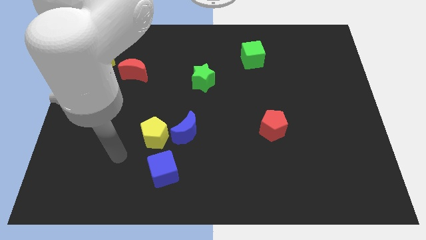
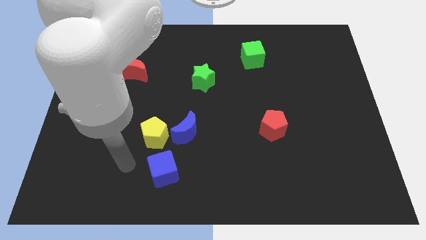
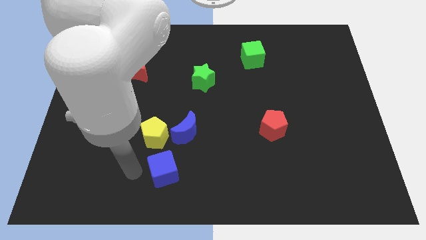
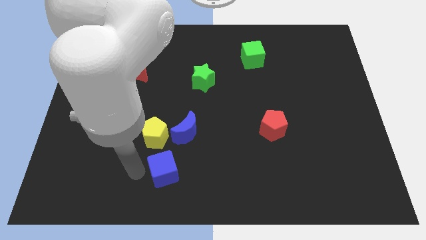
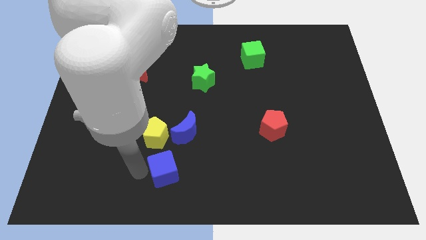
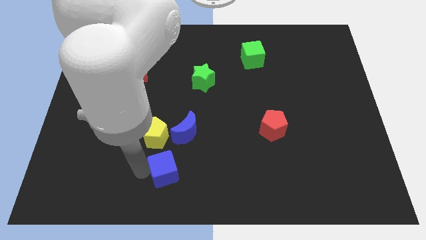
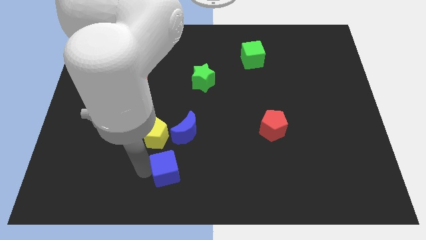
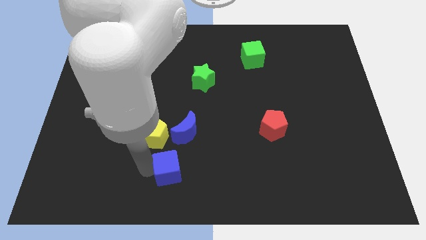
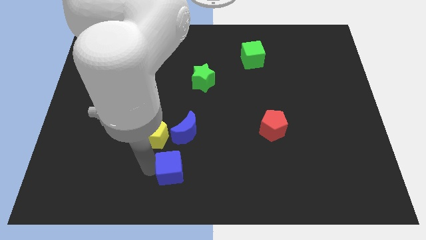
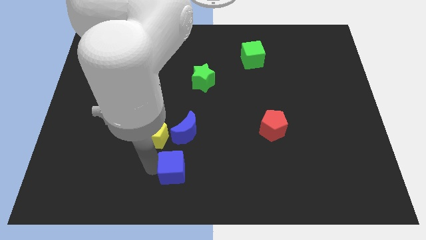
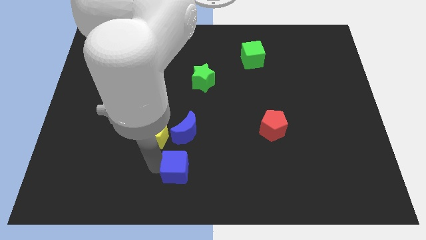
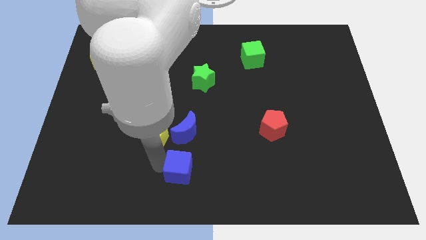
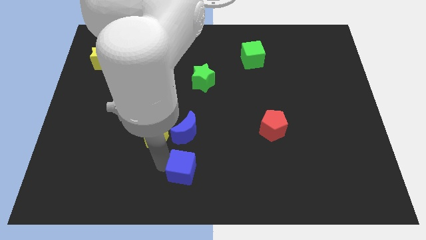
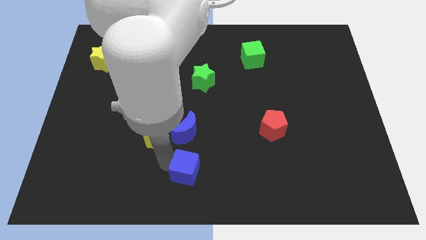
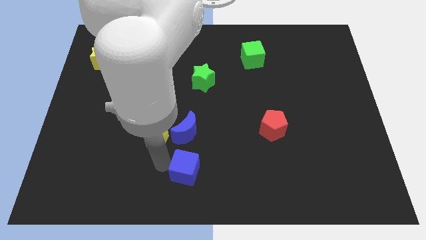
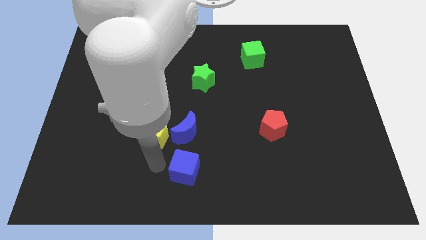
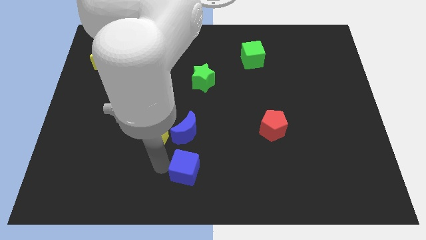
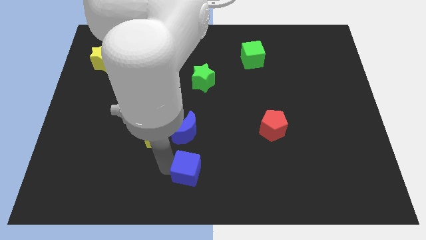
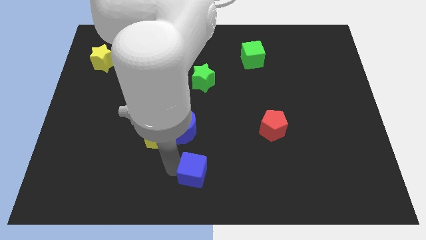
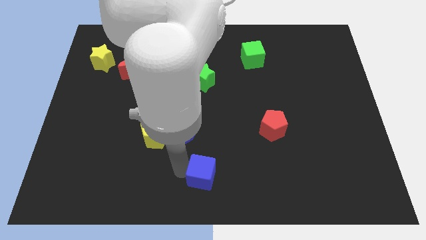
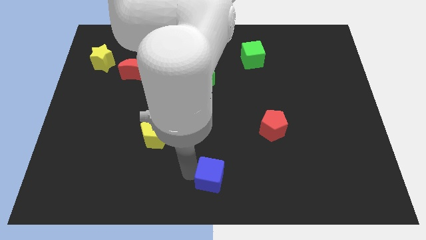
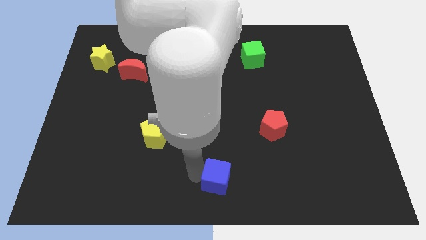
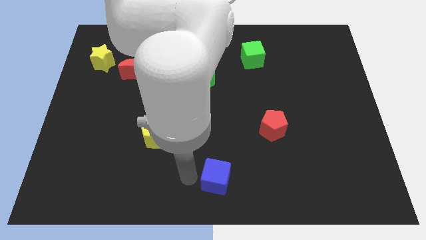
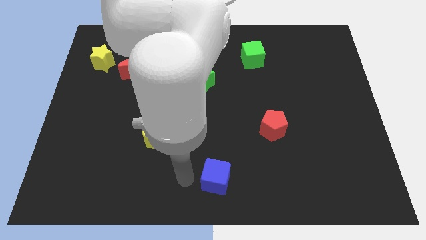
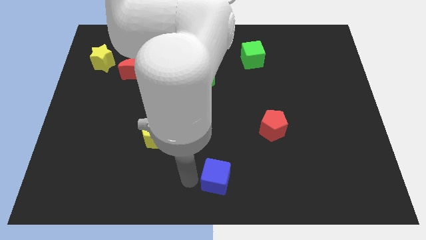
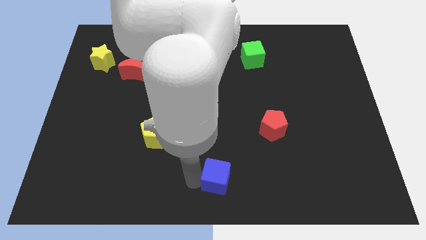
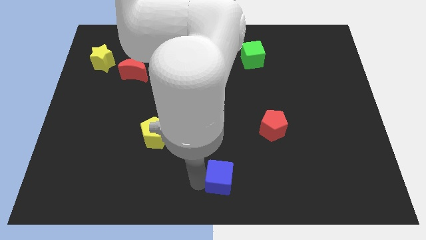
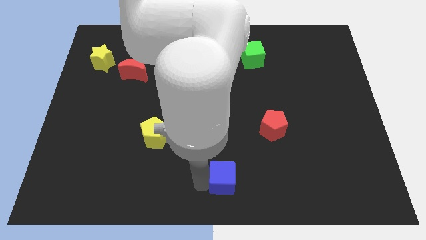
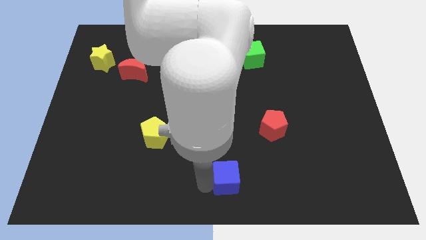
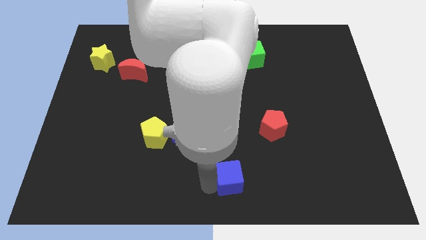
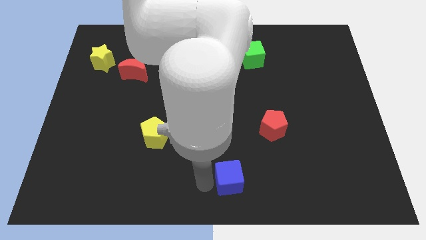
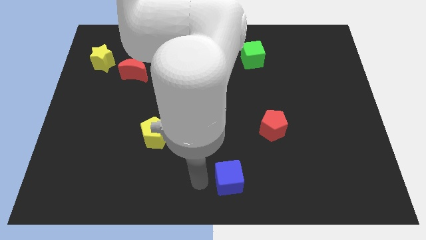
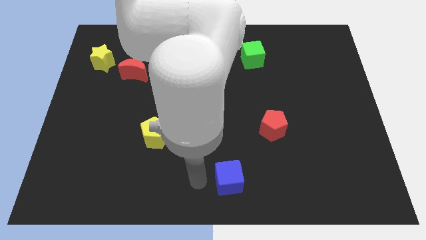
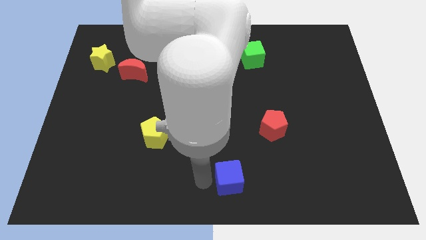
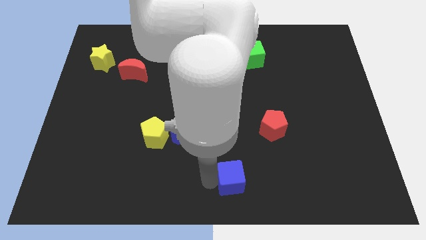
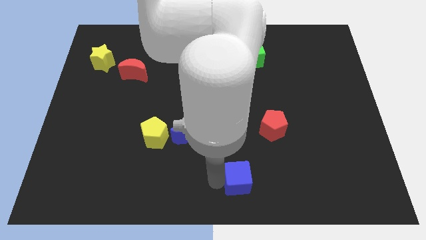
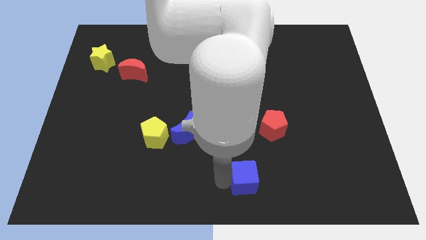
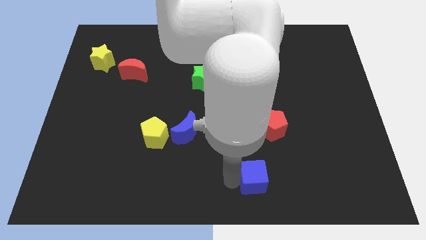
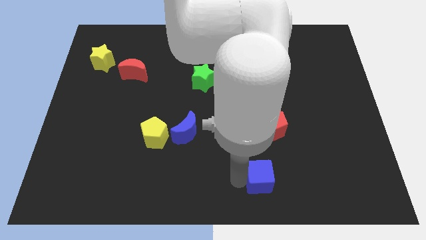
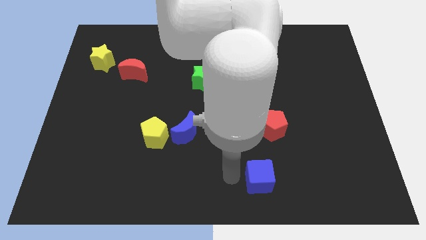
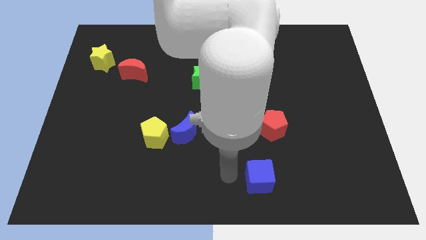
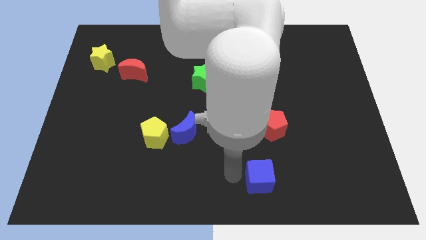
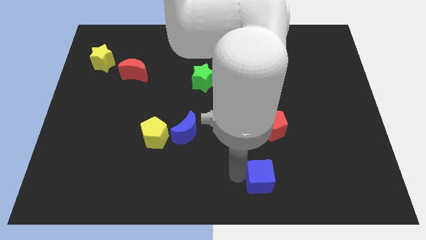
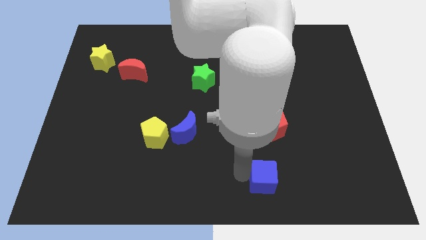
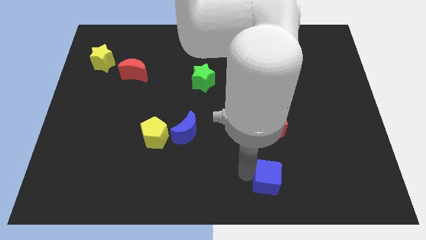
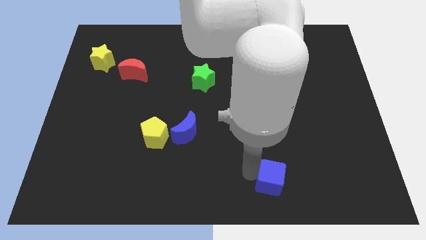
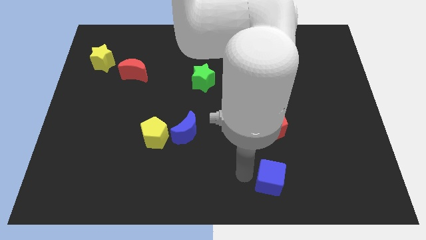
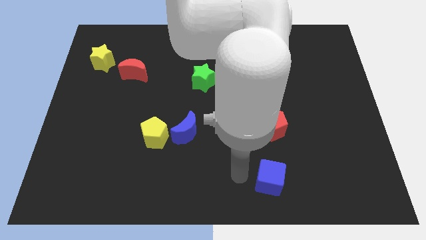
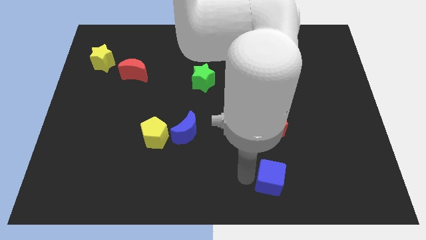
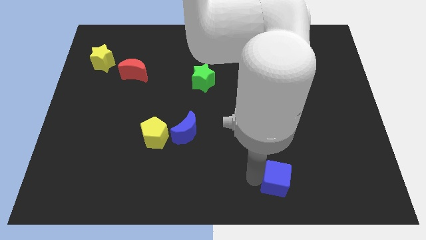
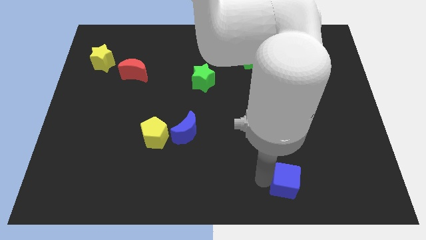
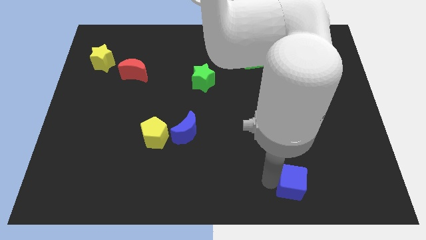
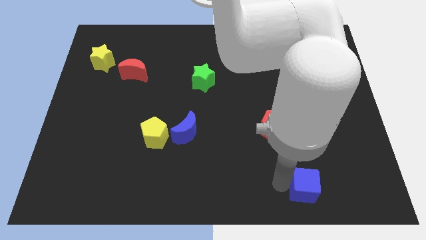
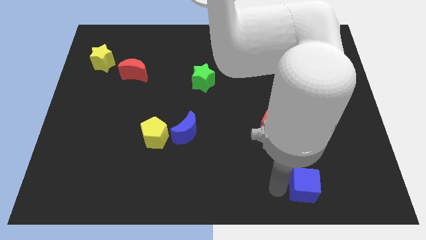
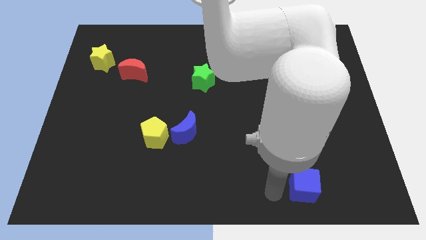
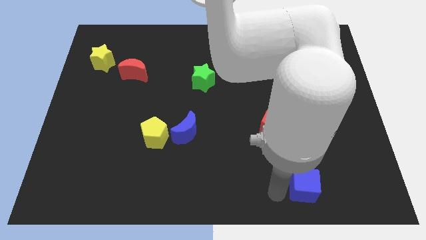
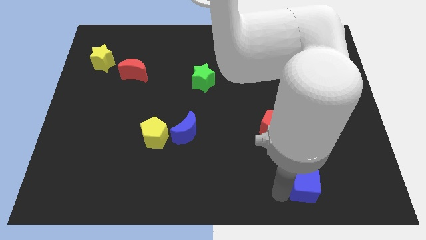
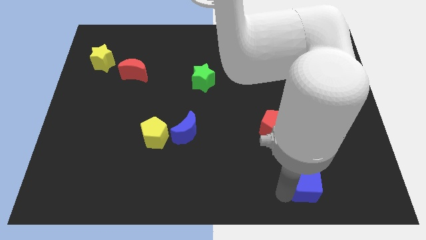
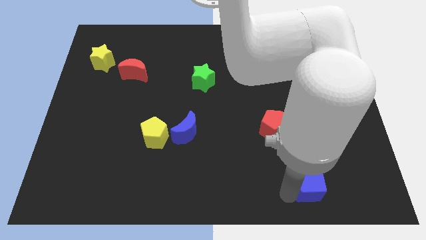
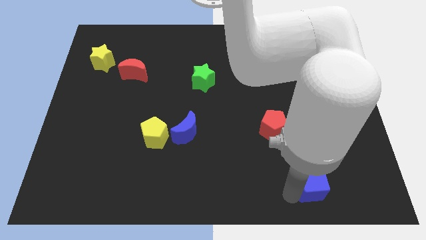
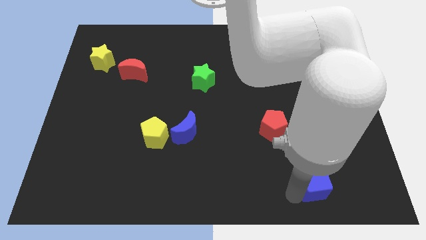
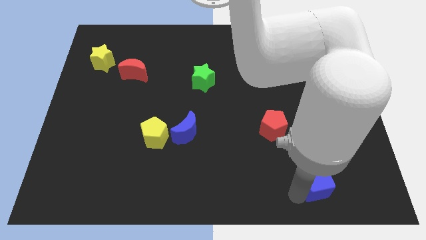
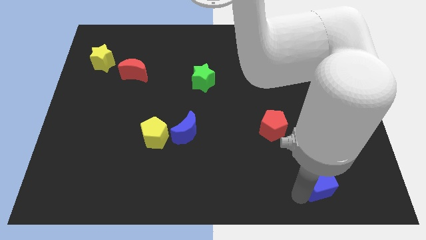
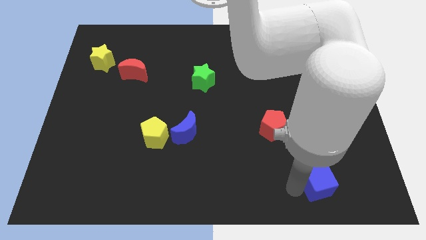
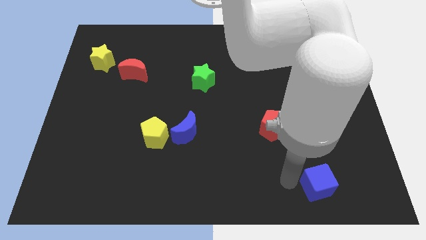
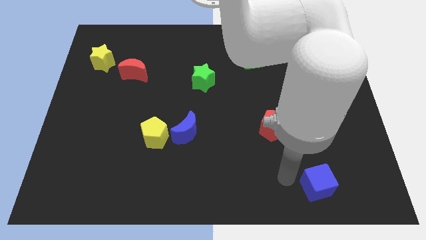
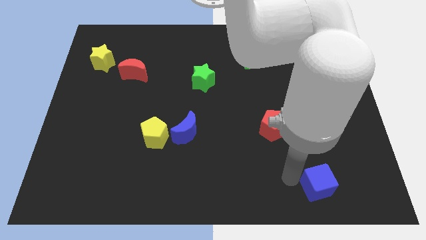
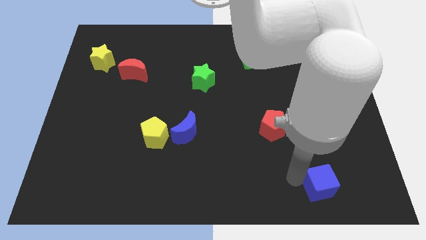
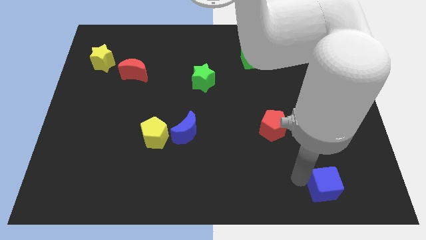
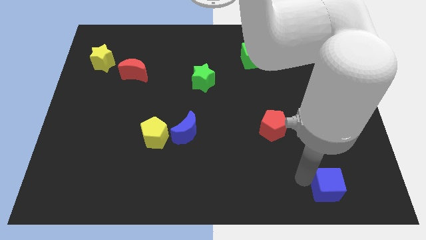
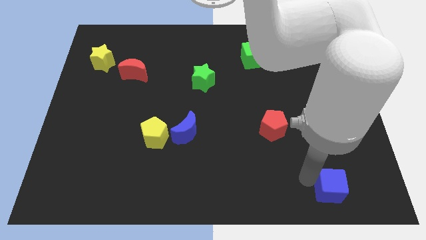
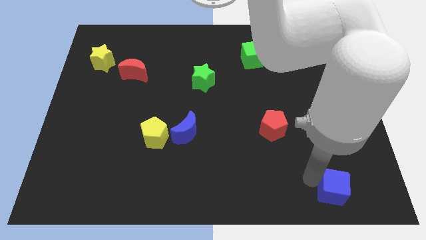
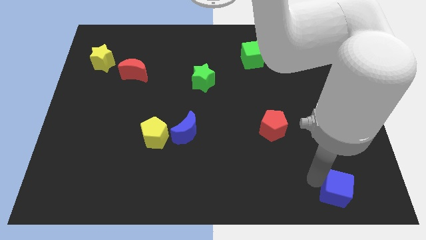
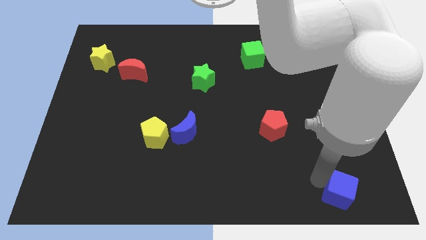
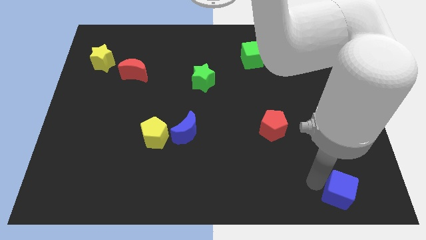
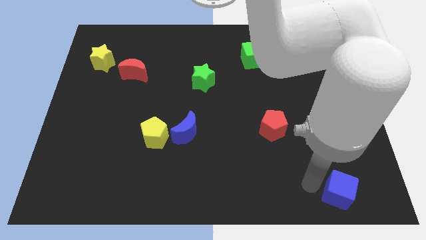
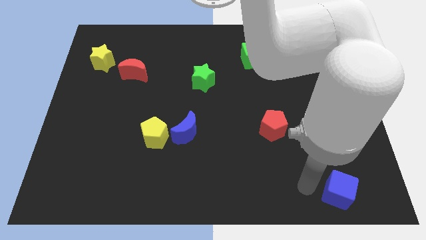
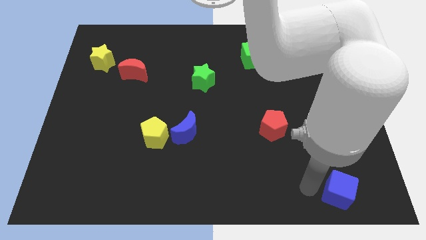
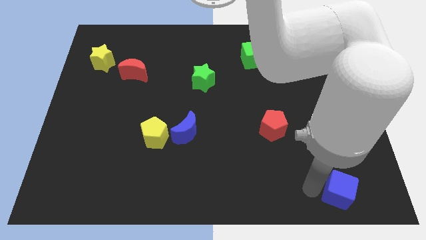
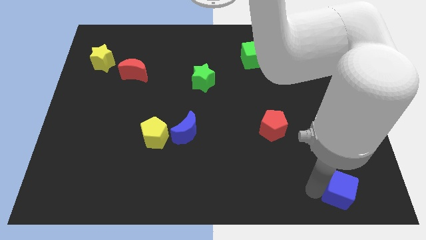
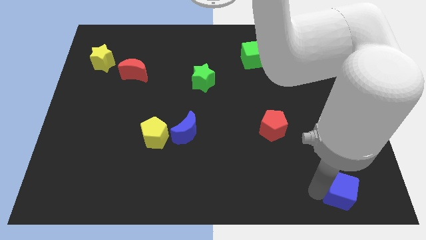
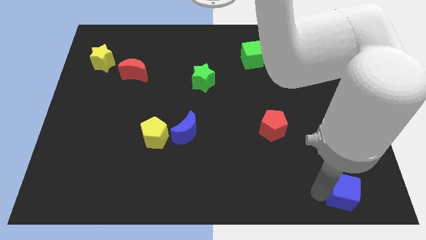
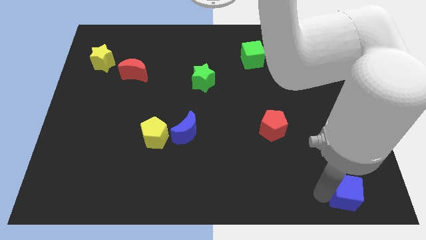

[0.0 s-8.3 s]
slide the blue cube to the bottom right corner
